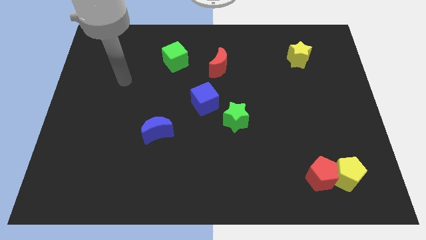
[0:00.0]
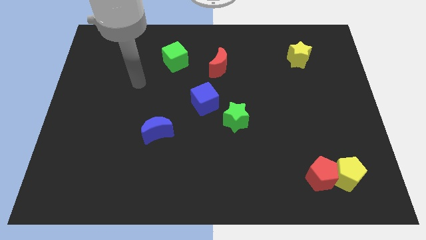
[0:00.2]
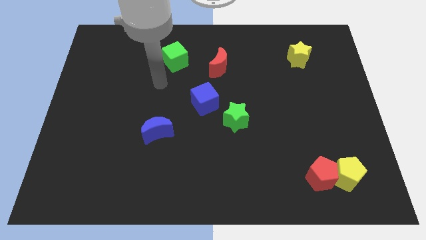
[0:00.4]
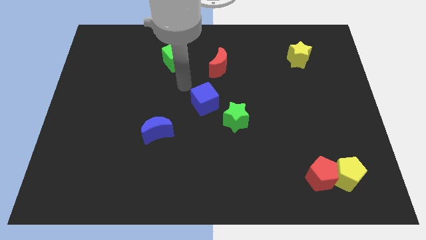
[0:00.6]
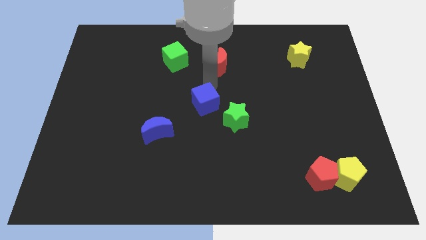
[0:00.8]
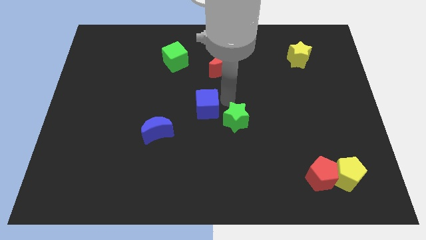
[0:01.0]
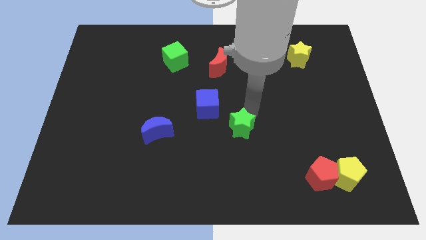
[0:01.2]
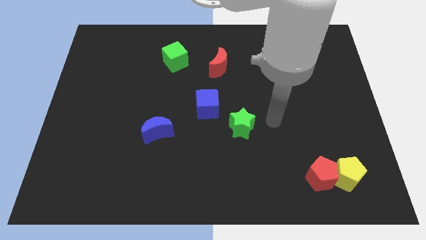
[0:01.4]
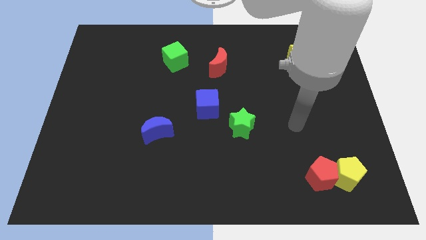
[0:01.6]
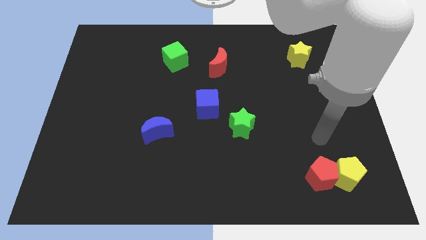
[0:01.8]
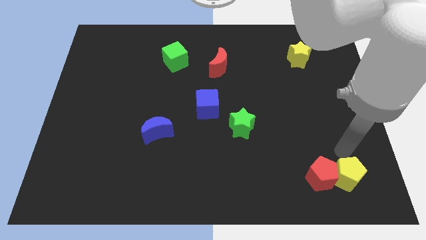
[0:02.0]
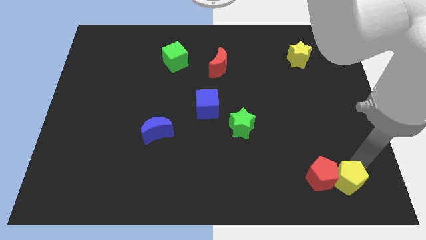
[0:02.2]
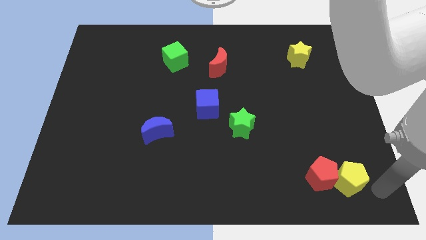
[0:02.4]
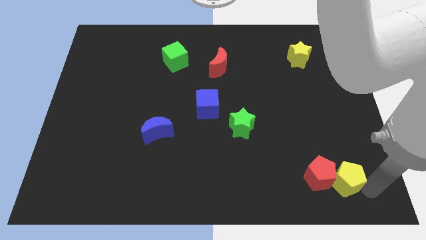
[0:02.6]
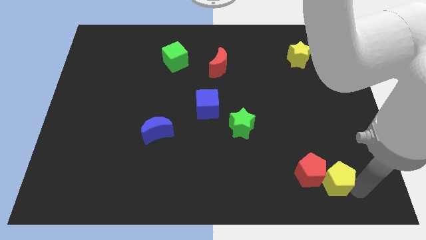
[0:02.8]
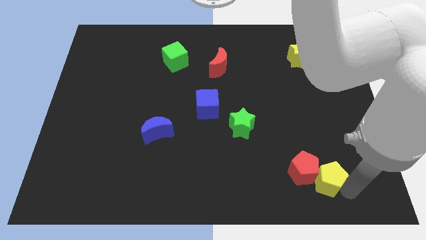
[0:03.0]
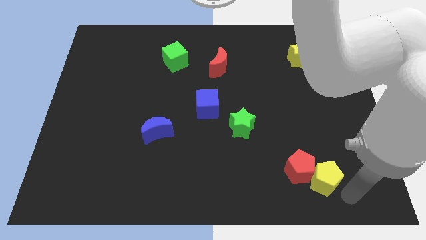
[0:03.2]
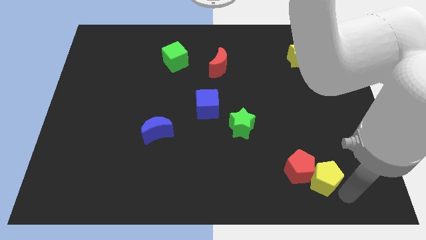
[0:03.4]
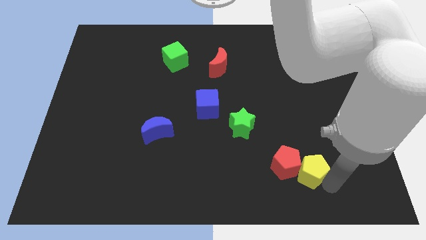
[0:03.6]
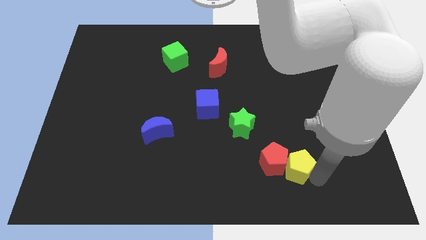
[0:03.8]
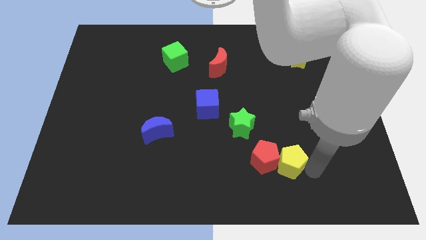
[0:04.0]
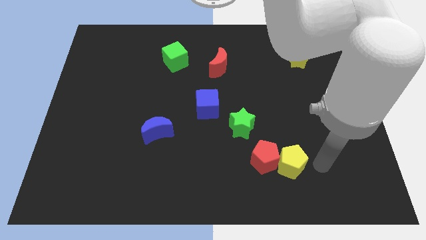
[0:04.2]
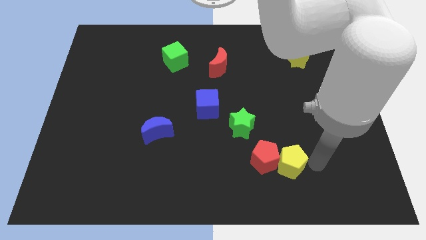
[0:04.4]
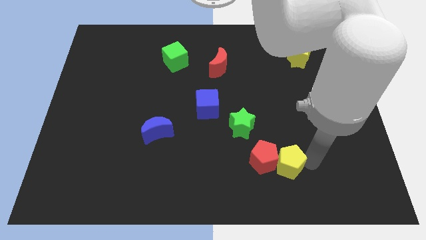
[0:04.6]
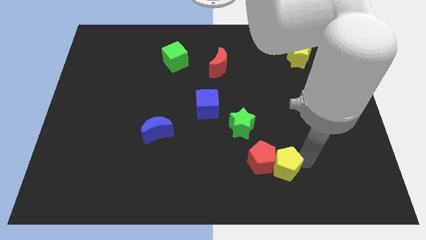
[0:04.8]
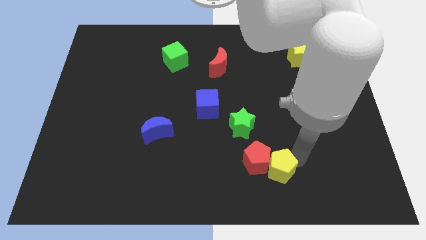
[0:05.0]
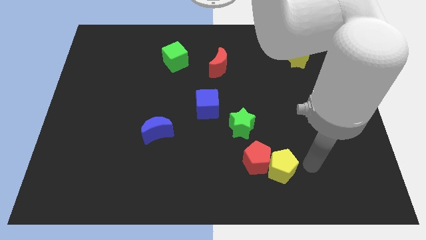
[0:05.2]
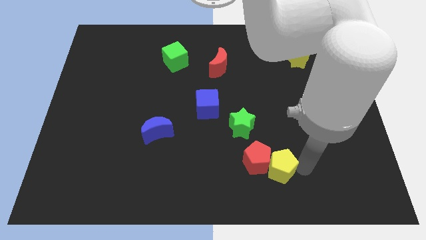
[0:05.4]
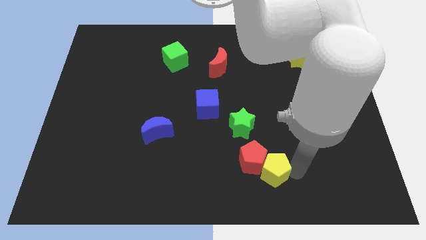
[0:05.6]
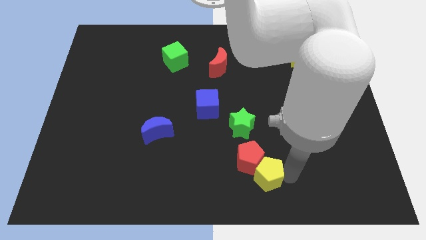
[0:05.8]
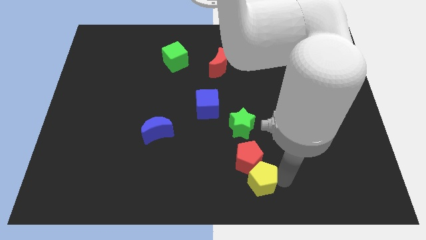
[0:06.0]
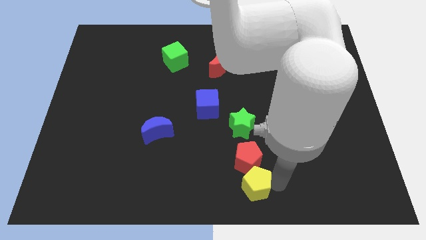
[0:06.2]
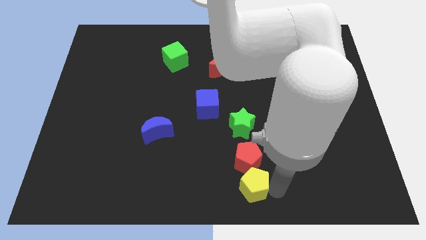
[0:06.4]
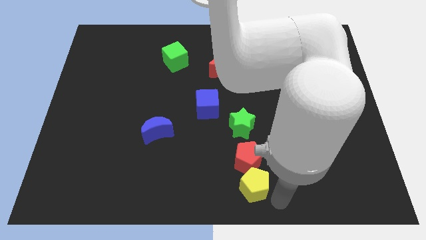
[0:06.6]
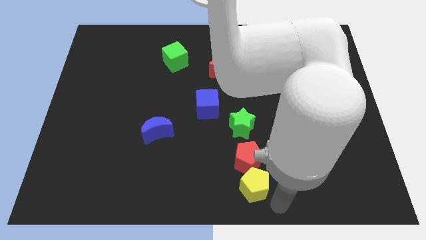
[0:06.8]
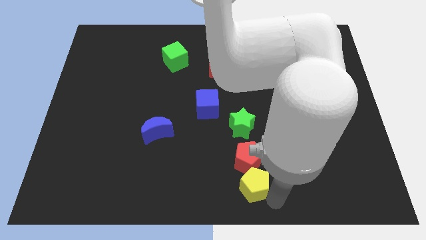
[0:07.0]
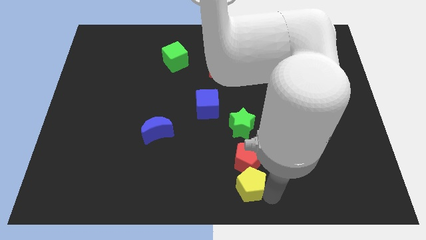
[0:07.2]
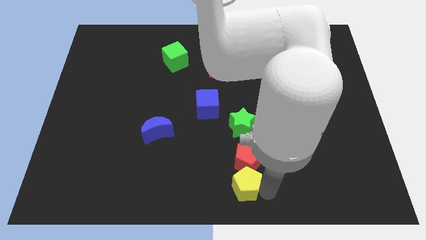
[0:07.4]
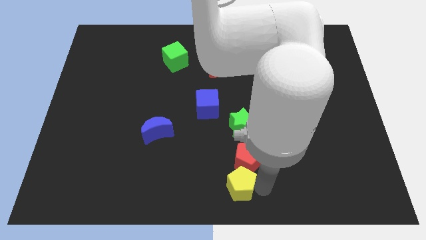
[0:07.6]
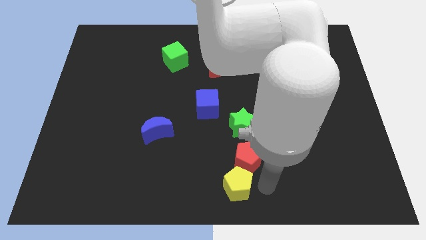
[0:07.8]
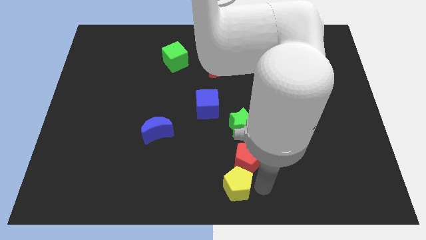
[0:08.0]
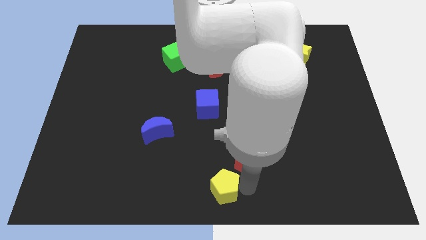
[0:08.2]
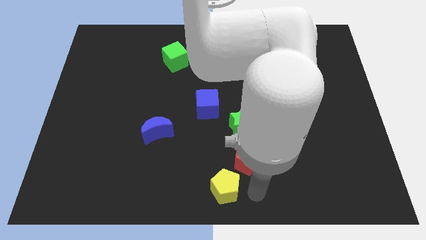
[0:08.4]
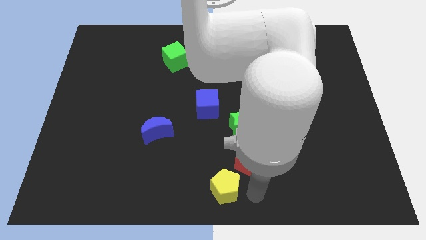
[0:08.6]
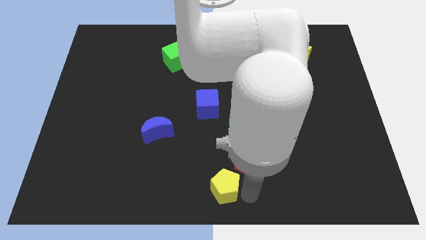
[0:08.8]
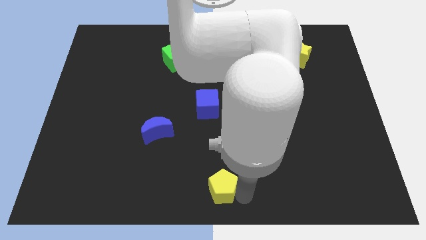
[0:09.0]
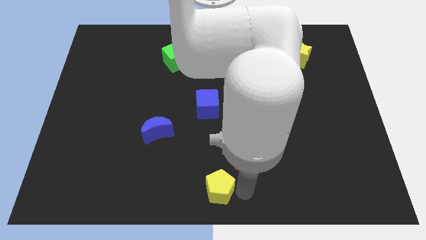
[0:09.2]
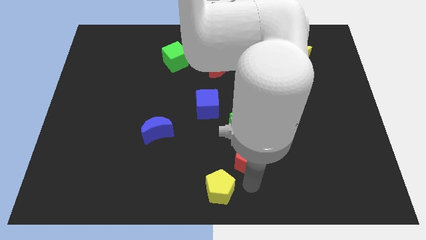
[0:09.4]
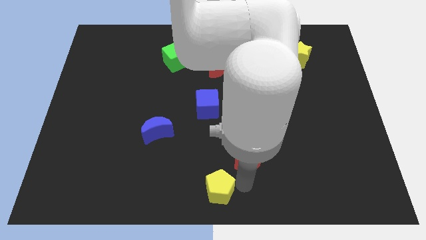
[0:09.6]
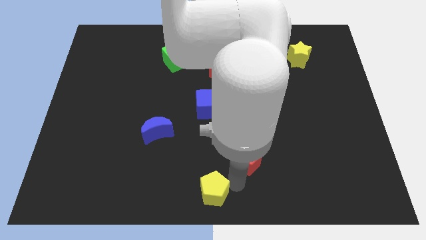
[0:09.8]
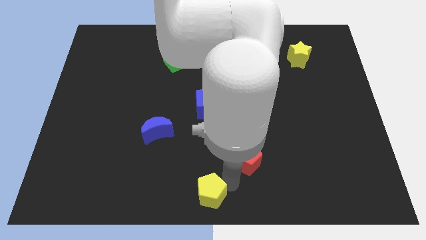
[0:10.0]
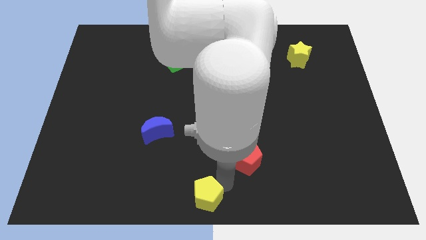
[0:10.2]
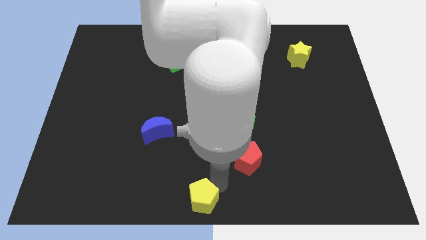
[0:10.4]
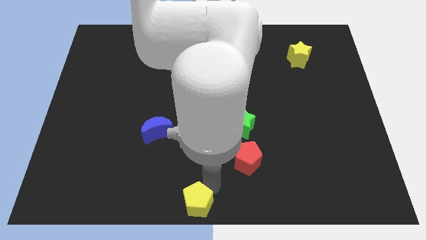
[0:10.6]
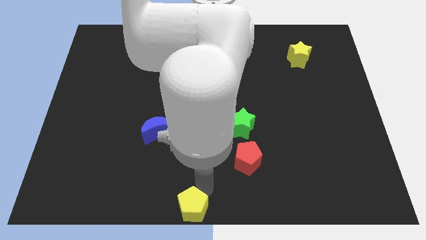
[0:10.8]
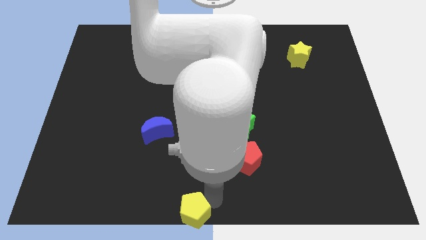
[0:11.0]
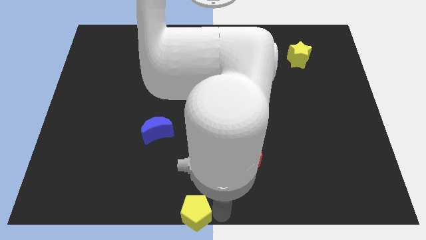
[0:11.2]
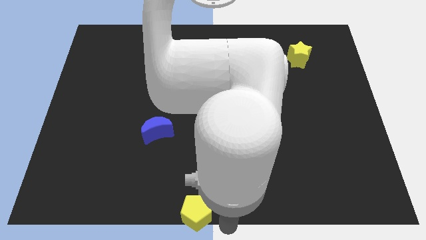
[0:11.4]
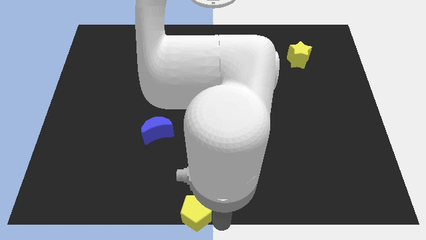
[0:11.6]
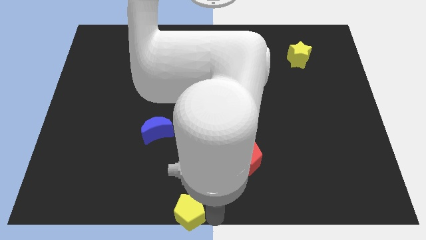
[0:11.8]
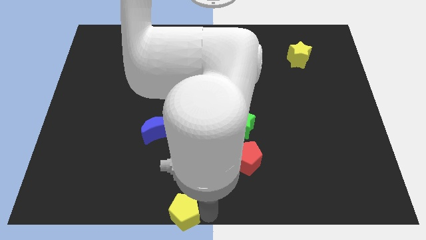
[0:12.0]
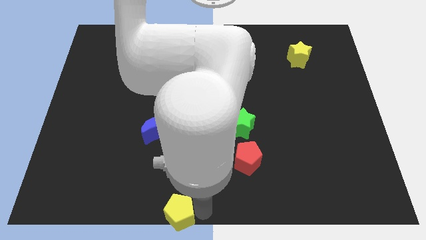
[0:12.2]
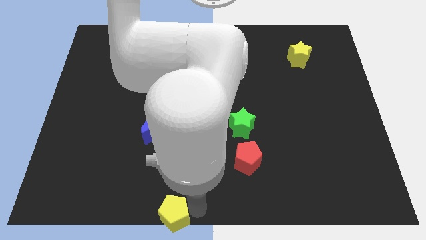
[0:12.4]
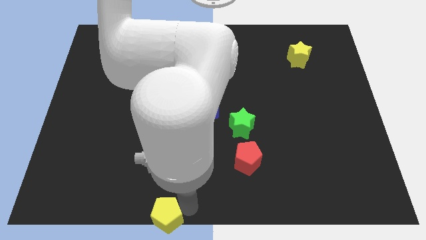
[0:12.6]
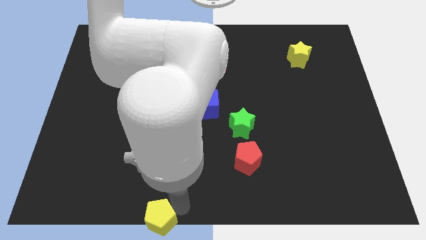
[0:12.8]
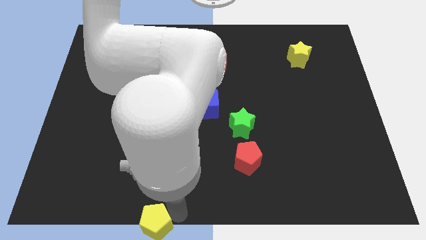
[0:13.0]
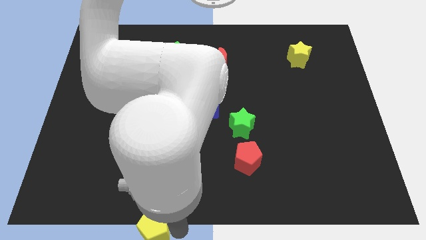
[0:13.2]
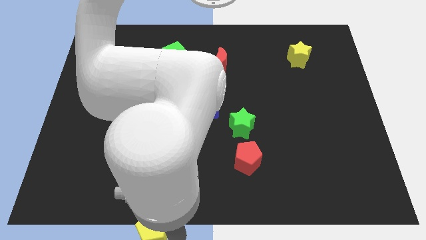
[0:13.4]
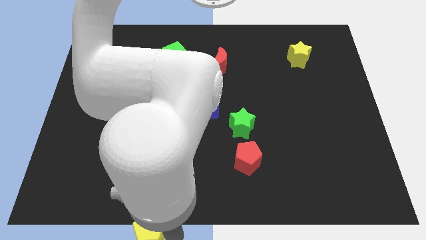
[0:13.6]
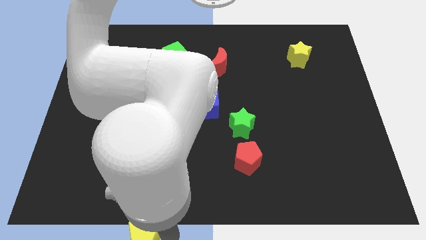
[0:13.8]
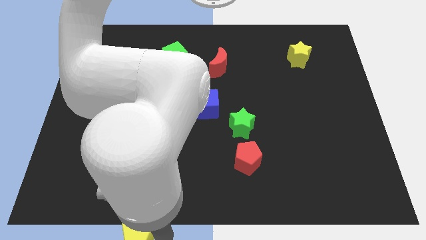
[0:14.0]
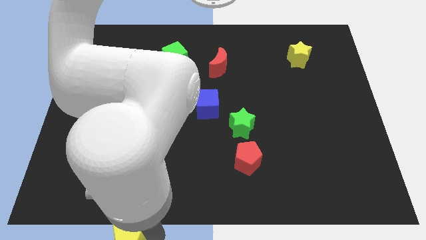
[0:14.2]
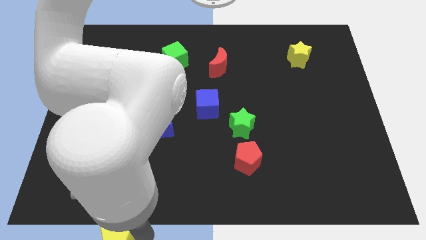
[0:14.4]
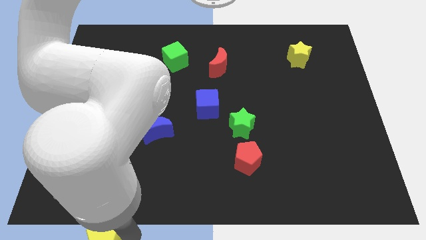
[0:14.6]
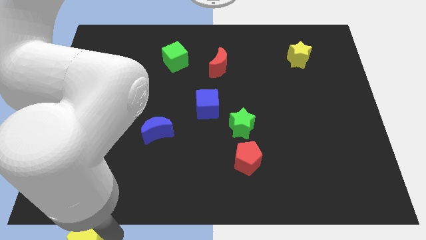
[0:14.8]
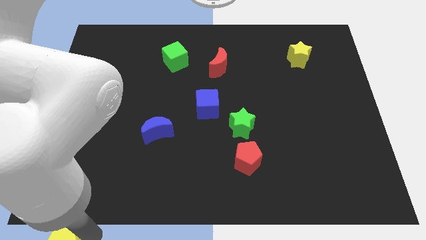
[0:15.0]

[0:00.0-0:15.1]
push the yellow pentagon to the bottom left of the board
